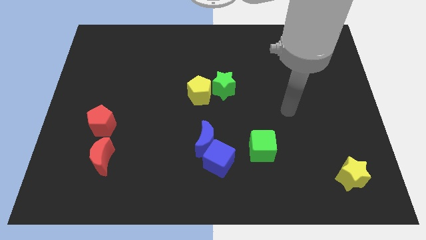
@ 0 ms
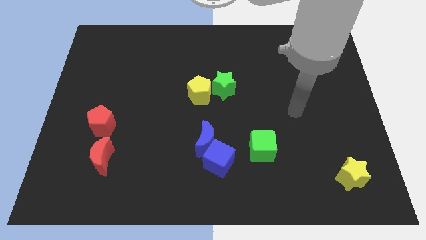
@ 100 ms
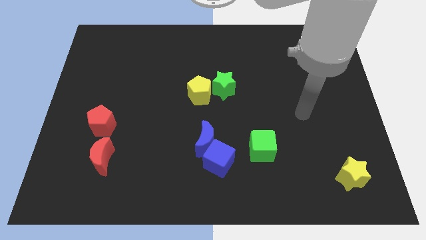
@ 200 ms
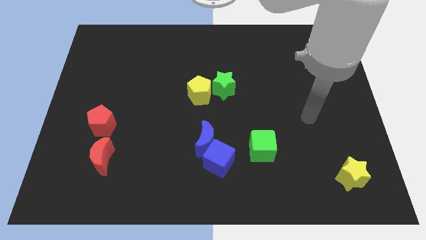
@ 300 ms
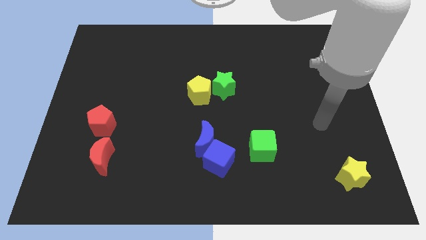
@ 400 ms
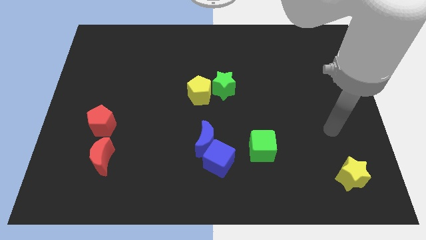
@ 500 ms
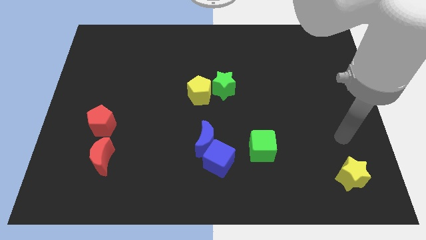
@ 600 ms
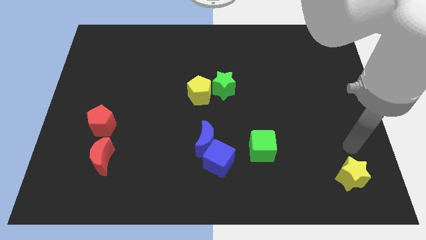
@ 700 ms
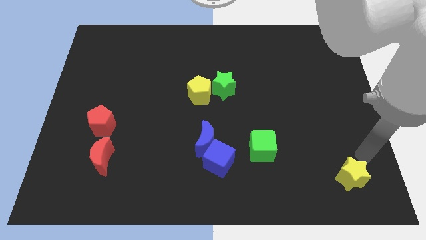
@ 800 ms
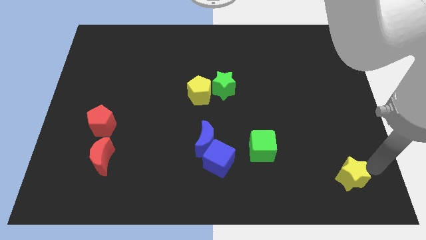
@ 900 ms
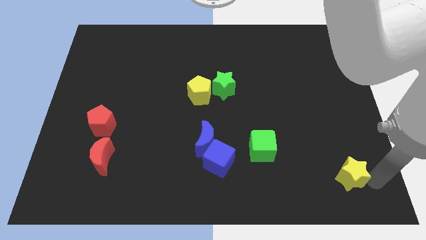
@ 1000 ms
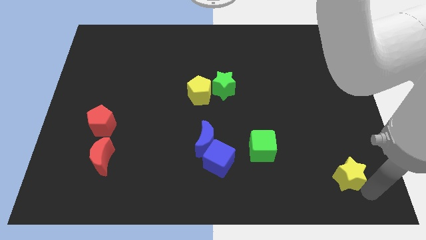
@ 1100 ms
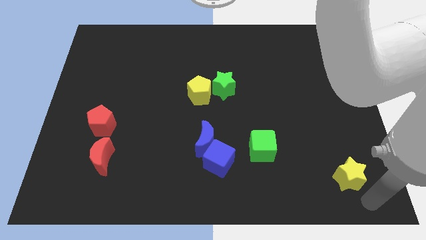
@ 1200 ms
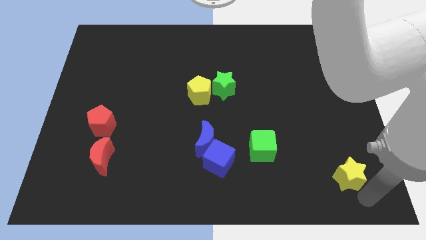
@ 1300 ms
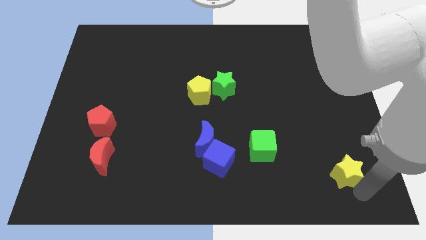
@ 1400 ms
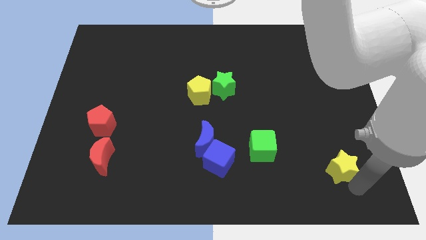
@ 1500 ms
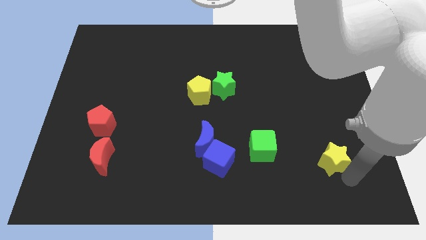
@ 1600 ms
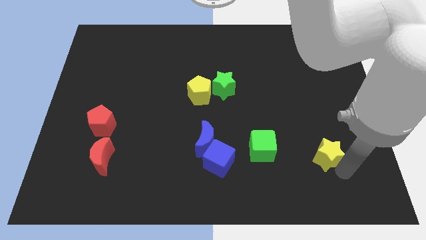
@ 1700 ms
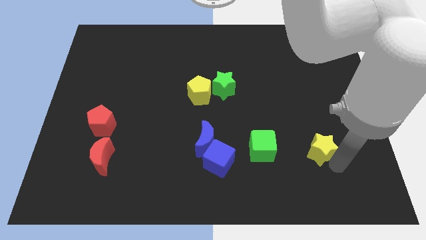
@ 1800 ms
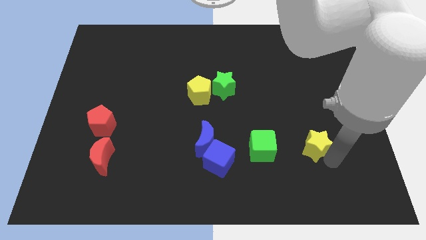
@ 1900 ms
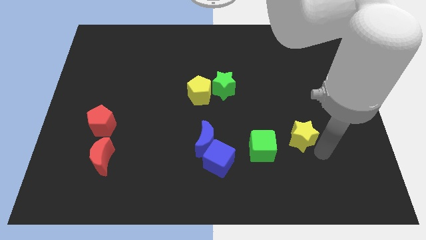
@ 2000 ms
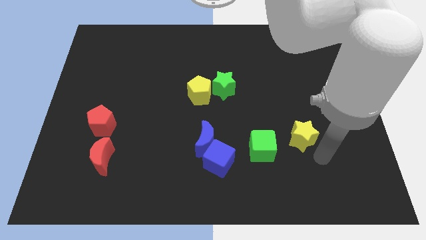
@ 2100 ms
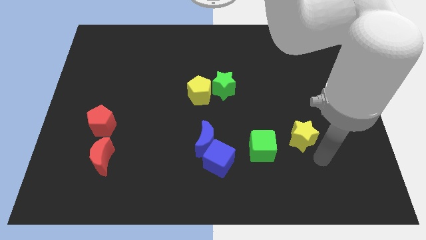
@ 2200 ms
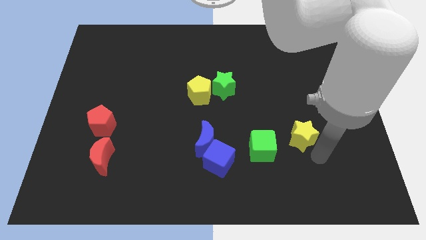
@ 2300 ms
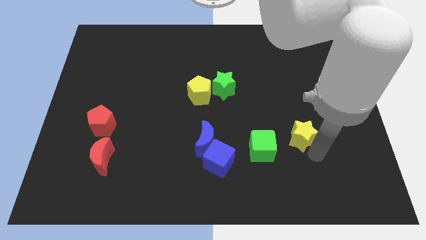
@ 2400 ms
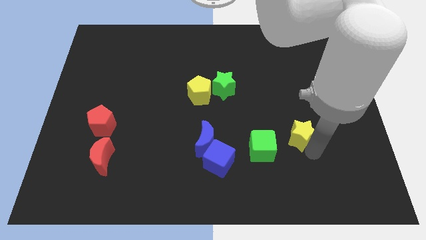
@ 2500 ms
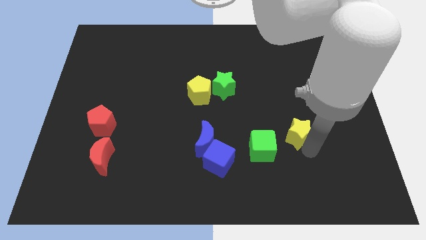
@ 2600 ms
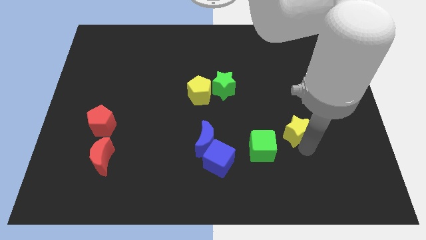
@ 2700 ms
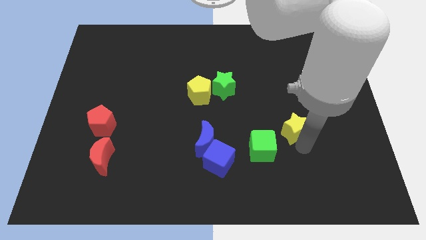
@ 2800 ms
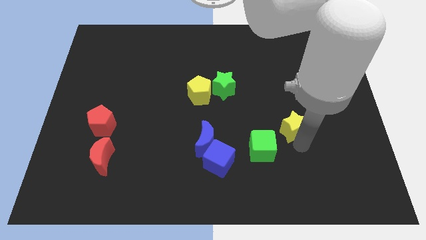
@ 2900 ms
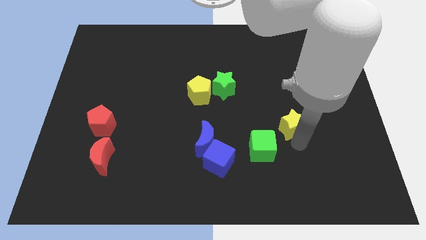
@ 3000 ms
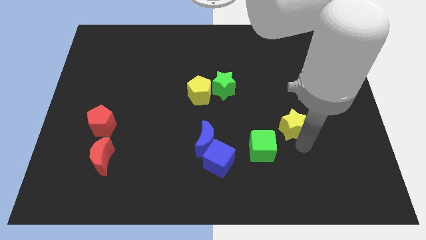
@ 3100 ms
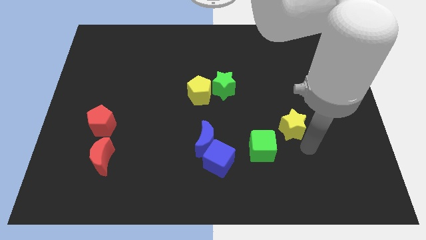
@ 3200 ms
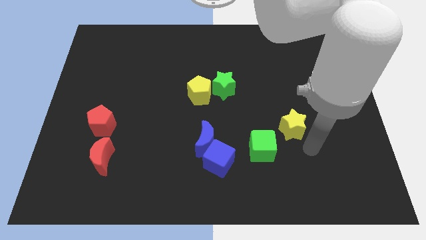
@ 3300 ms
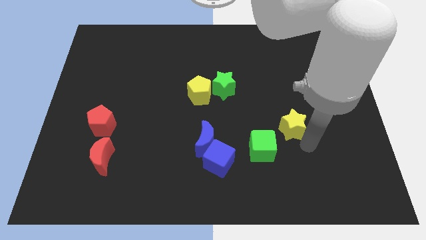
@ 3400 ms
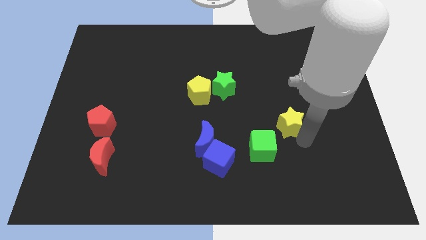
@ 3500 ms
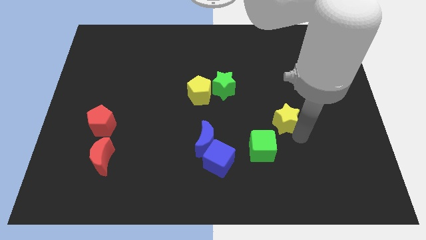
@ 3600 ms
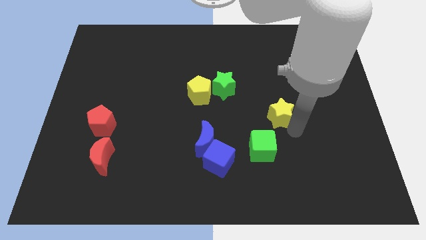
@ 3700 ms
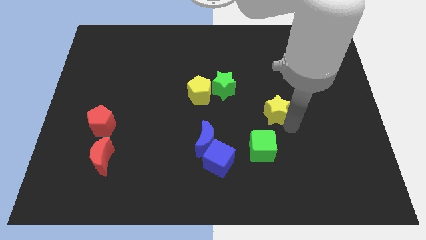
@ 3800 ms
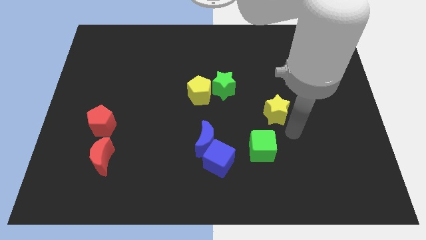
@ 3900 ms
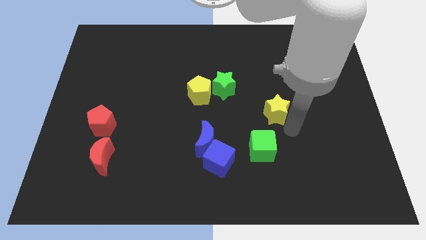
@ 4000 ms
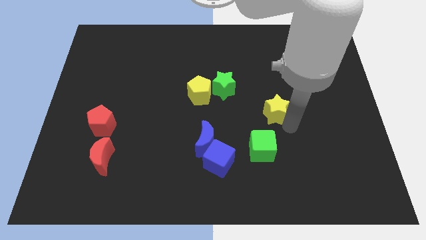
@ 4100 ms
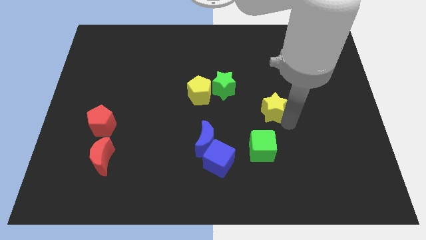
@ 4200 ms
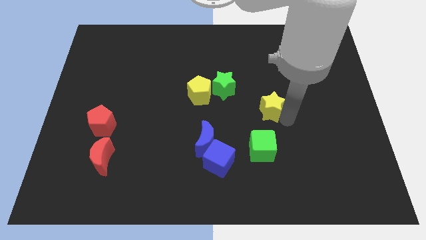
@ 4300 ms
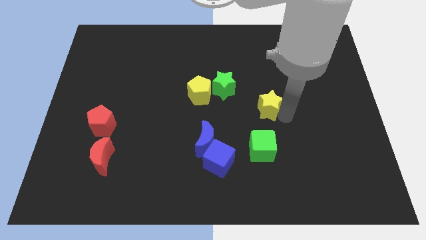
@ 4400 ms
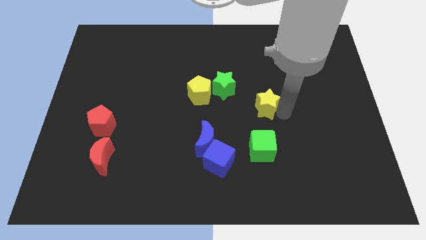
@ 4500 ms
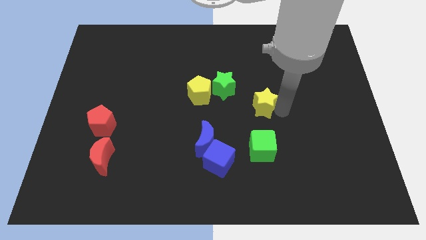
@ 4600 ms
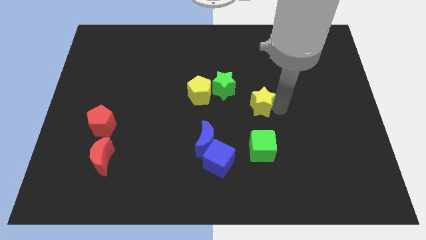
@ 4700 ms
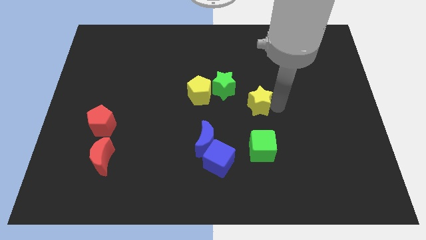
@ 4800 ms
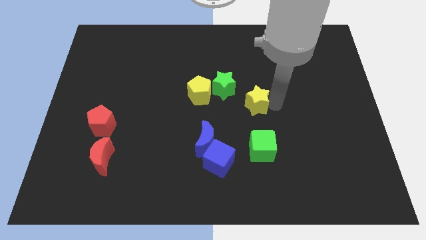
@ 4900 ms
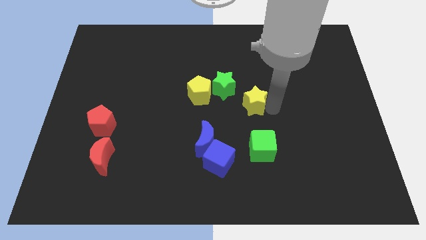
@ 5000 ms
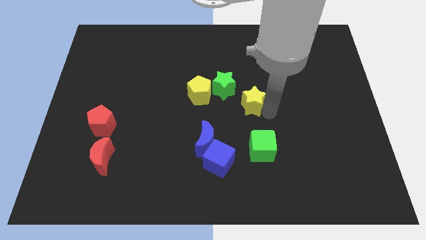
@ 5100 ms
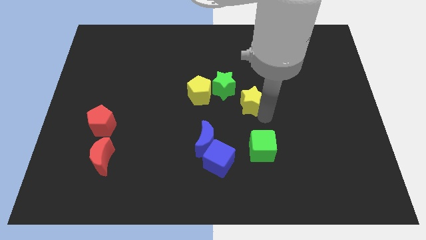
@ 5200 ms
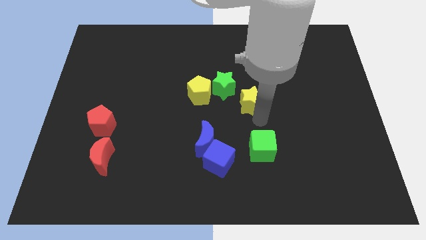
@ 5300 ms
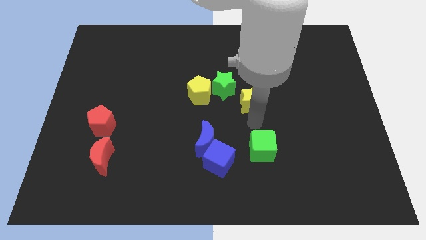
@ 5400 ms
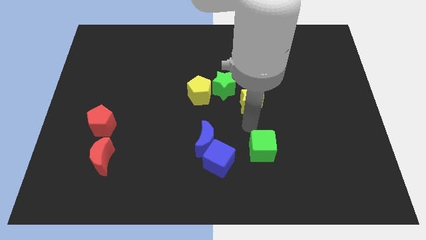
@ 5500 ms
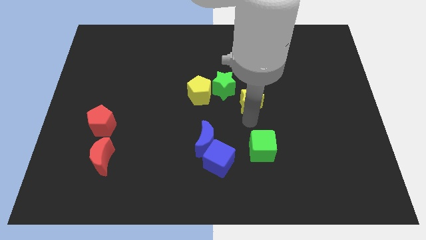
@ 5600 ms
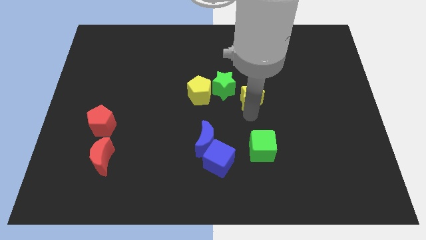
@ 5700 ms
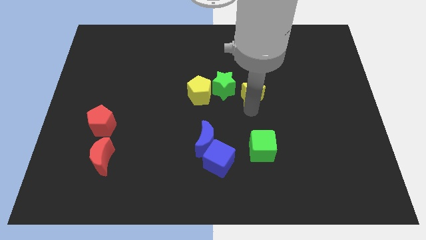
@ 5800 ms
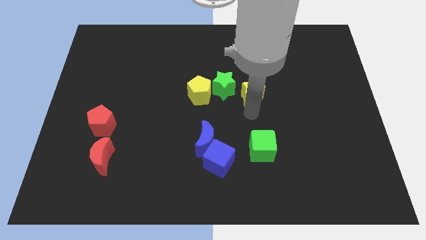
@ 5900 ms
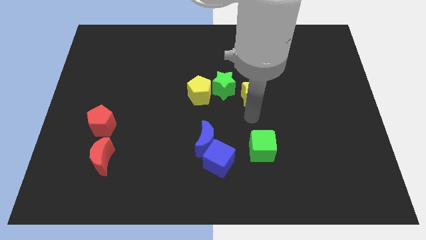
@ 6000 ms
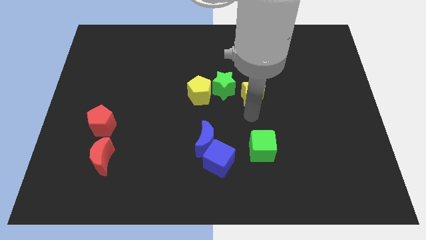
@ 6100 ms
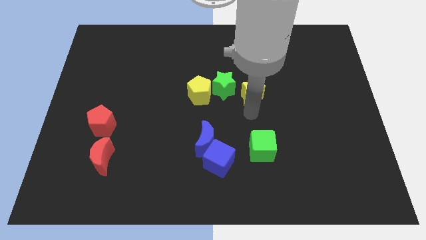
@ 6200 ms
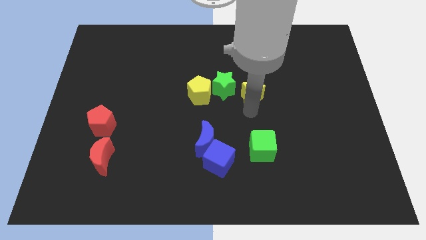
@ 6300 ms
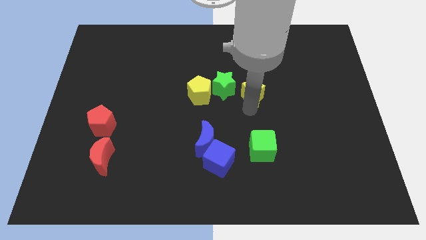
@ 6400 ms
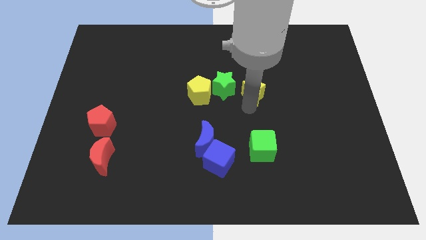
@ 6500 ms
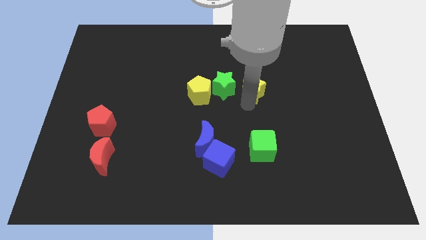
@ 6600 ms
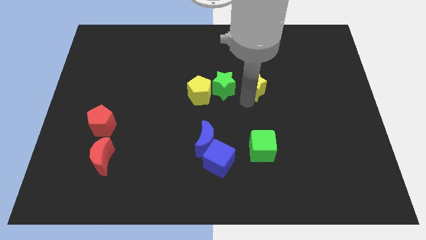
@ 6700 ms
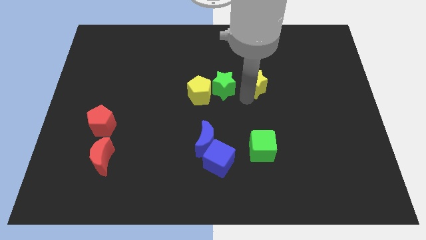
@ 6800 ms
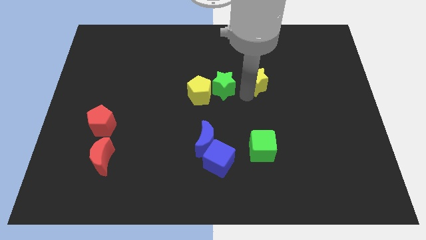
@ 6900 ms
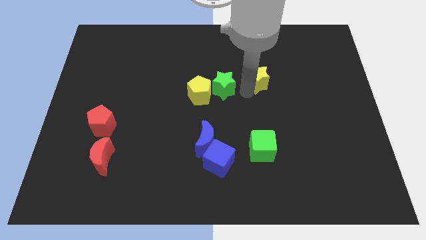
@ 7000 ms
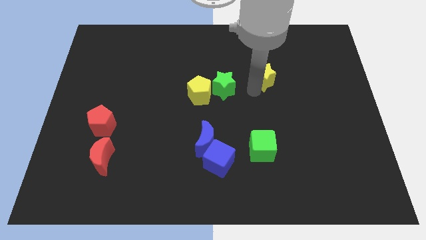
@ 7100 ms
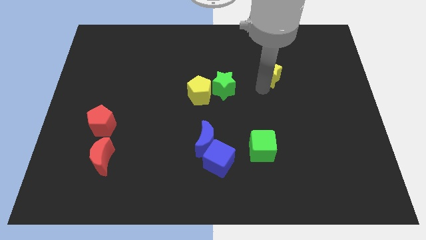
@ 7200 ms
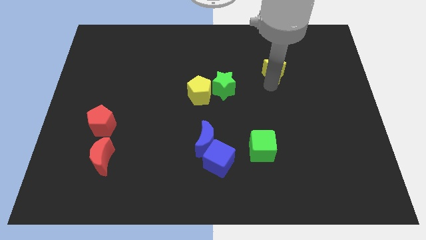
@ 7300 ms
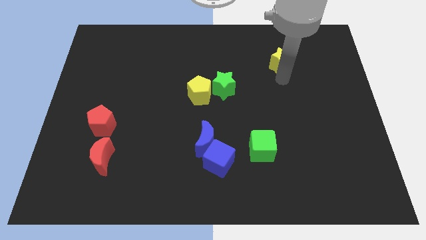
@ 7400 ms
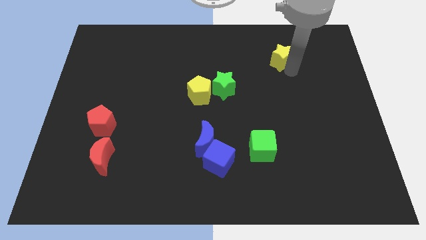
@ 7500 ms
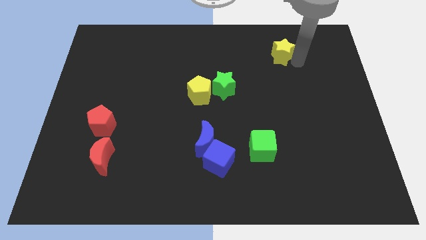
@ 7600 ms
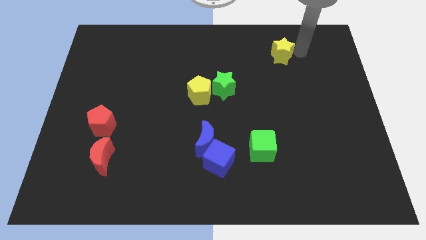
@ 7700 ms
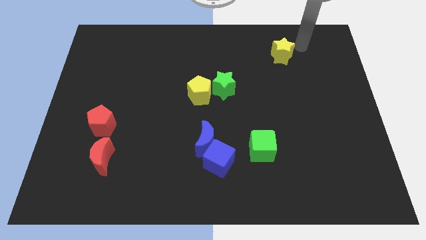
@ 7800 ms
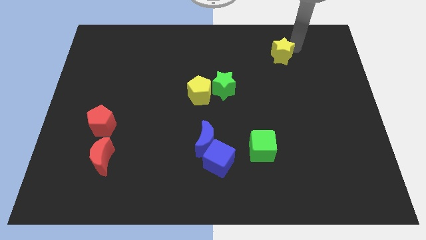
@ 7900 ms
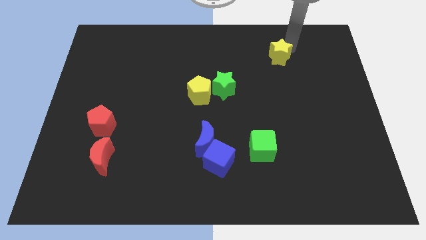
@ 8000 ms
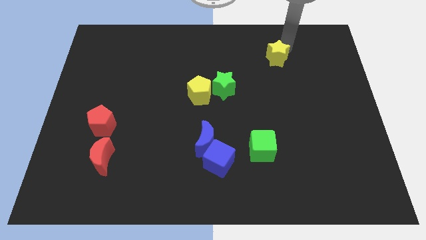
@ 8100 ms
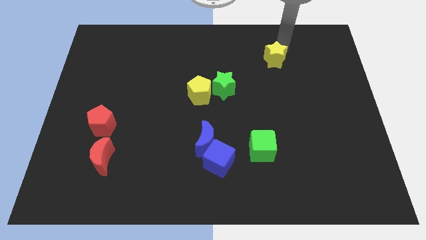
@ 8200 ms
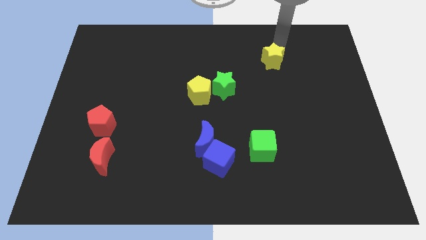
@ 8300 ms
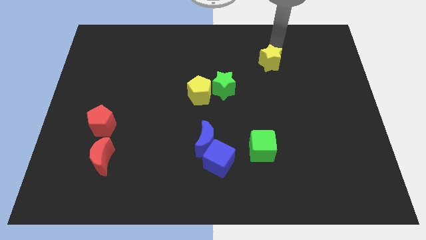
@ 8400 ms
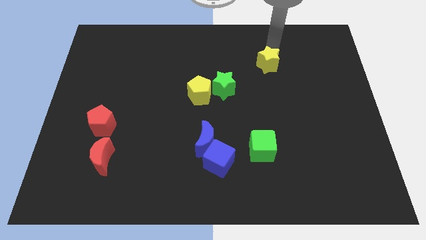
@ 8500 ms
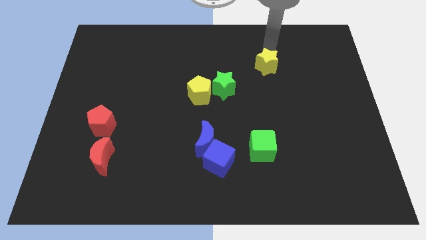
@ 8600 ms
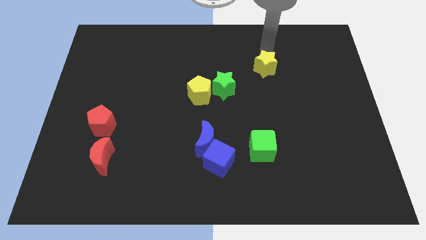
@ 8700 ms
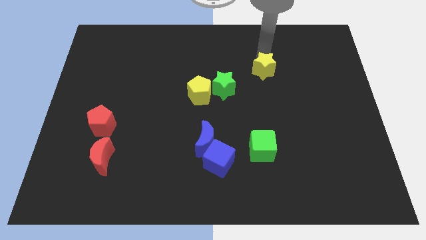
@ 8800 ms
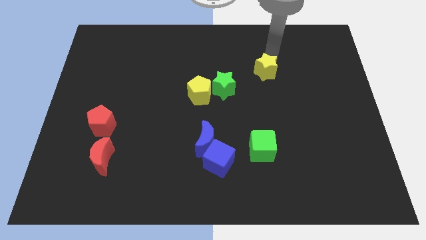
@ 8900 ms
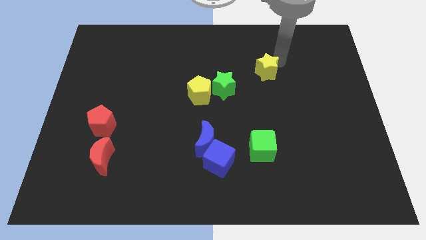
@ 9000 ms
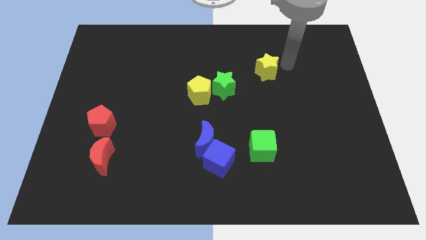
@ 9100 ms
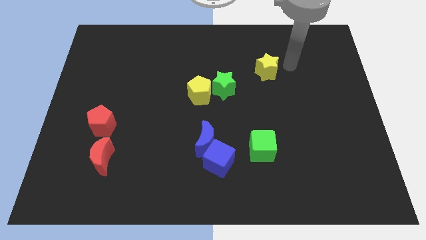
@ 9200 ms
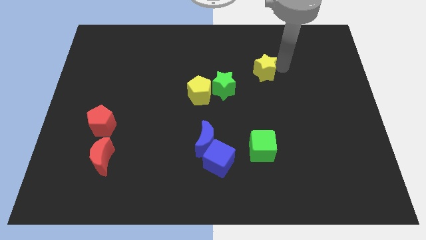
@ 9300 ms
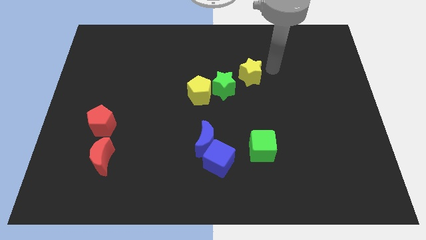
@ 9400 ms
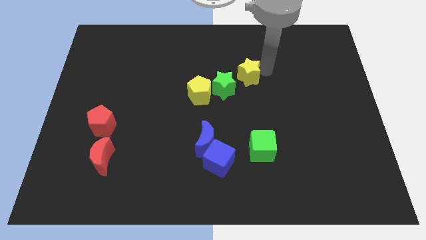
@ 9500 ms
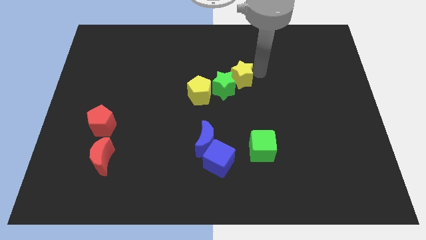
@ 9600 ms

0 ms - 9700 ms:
move the yellow star diagonally up and to the right of the yellow pentagon
